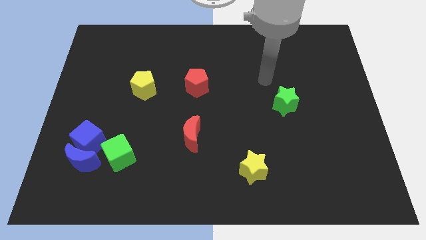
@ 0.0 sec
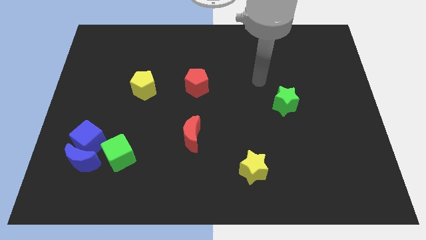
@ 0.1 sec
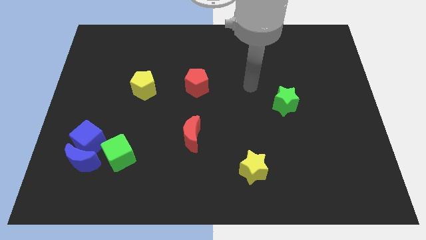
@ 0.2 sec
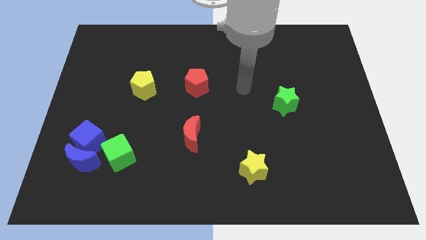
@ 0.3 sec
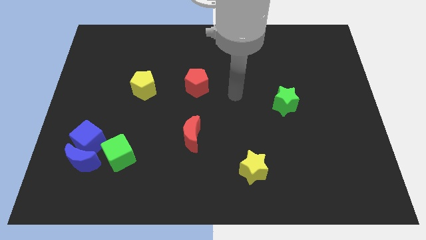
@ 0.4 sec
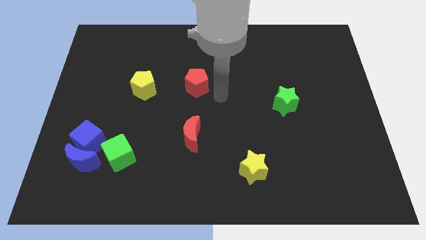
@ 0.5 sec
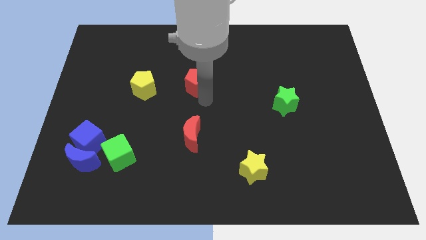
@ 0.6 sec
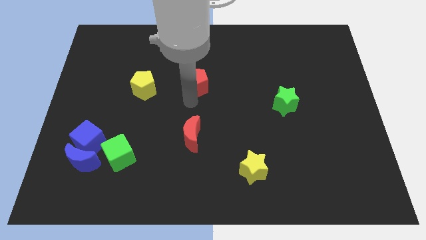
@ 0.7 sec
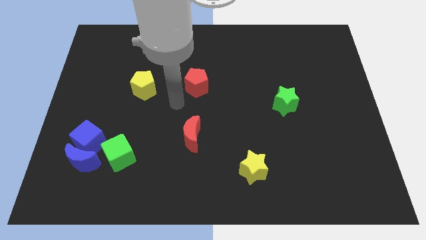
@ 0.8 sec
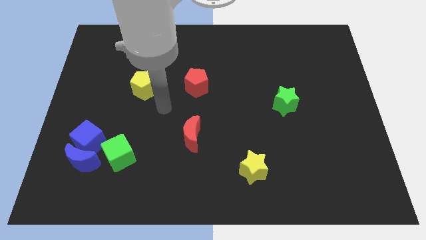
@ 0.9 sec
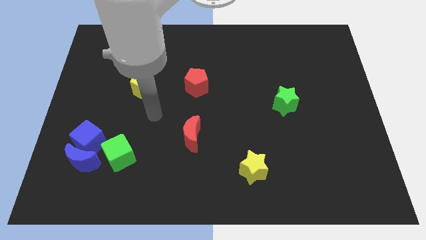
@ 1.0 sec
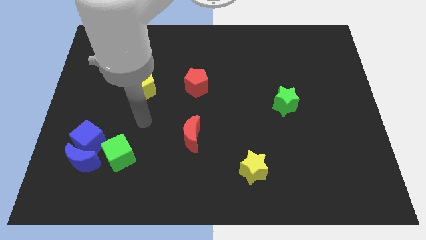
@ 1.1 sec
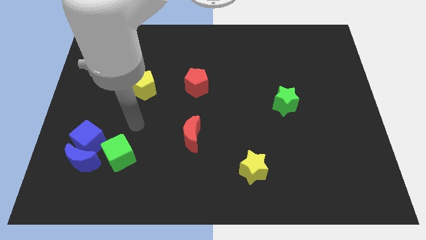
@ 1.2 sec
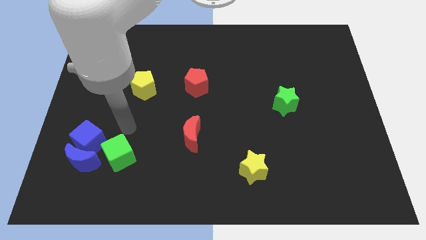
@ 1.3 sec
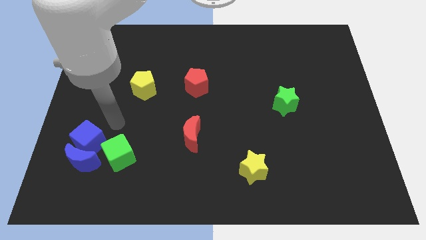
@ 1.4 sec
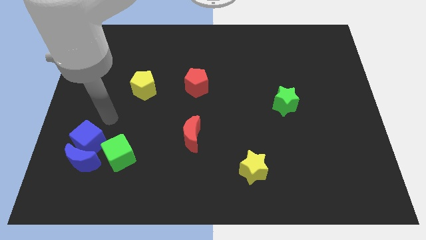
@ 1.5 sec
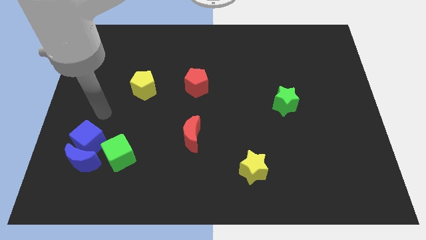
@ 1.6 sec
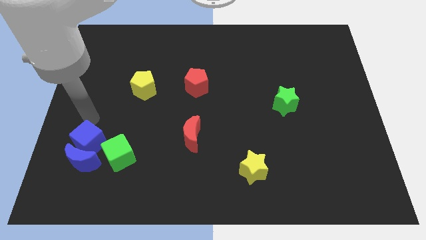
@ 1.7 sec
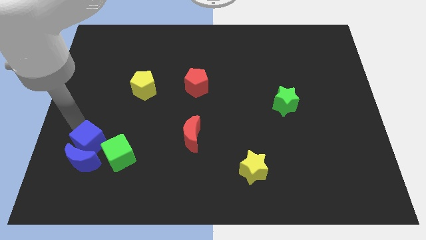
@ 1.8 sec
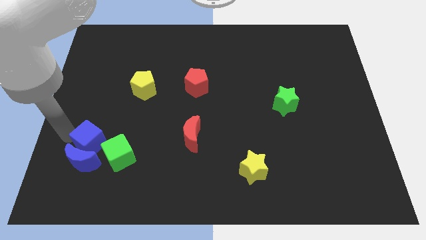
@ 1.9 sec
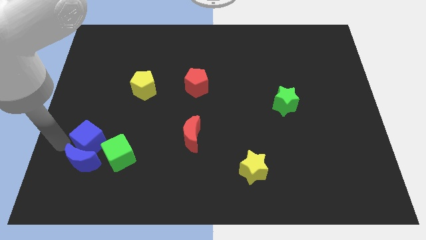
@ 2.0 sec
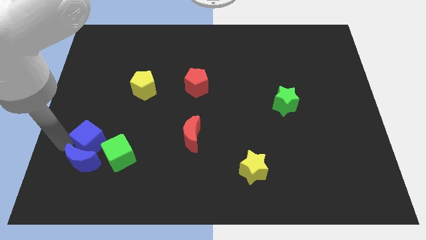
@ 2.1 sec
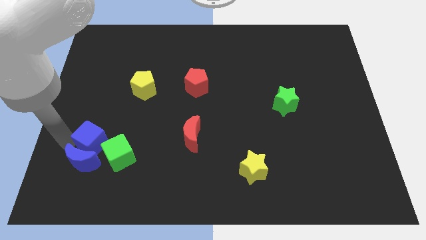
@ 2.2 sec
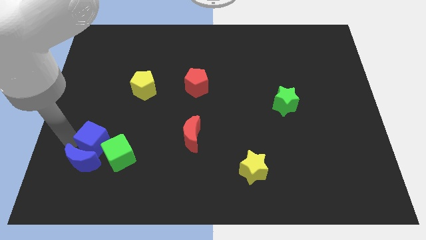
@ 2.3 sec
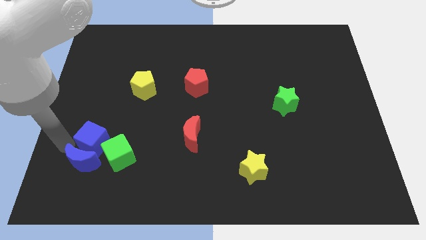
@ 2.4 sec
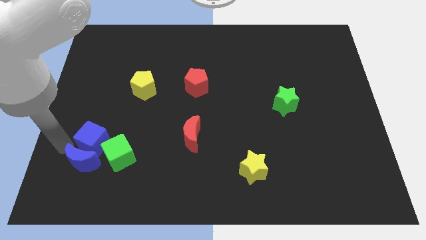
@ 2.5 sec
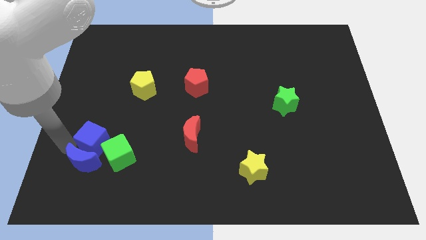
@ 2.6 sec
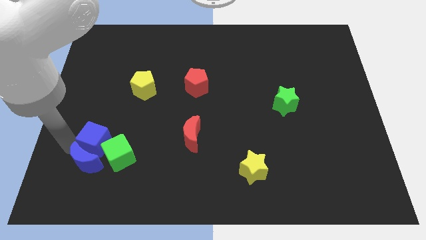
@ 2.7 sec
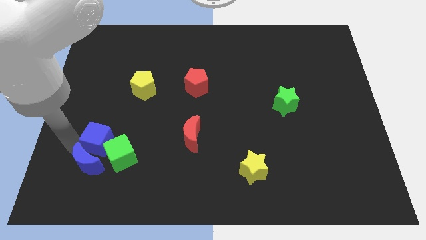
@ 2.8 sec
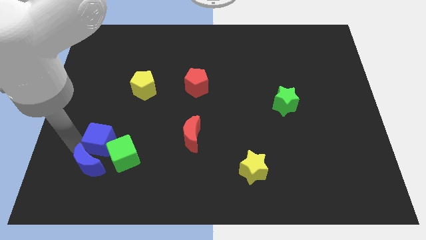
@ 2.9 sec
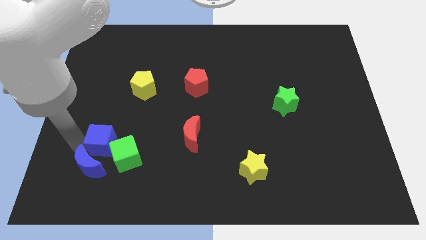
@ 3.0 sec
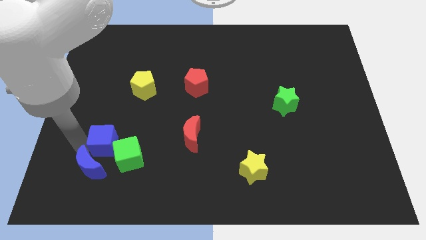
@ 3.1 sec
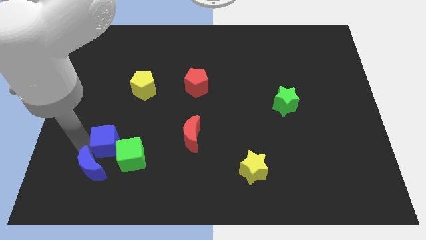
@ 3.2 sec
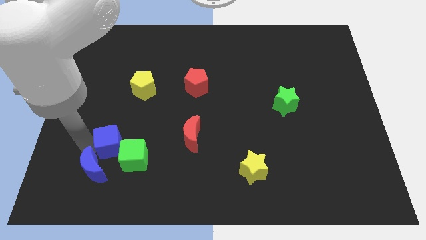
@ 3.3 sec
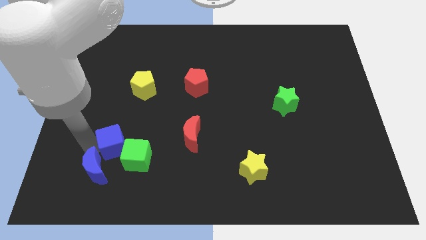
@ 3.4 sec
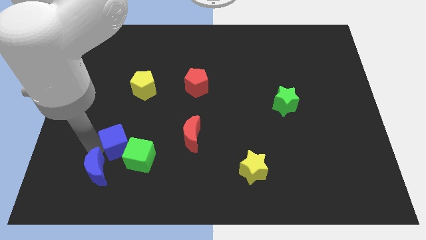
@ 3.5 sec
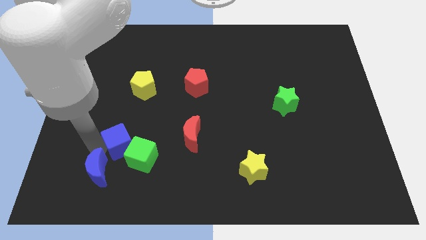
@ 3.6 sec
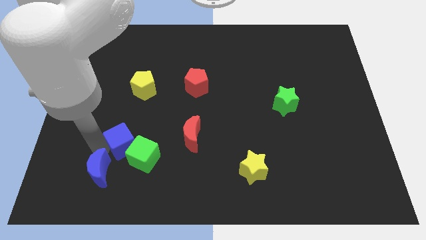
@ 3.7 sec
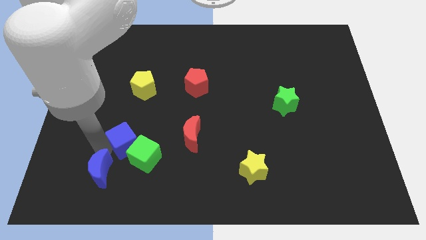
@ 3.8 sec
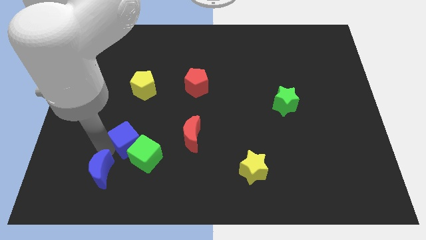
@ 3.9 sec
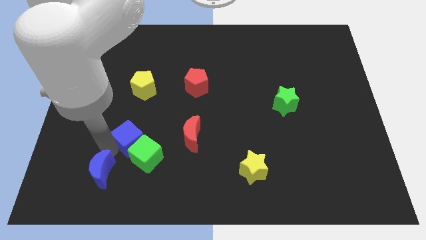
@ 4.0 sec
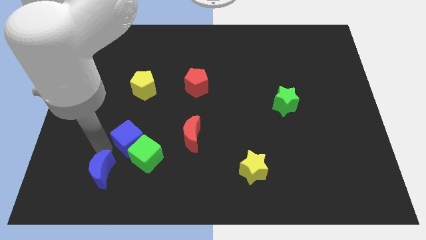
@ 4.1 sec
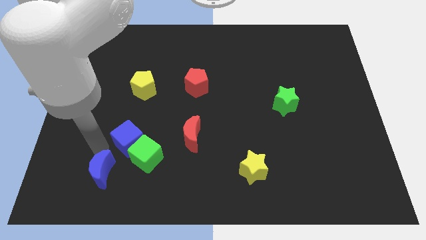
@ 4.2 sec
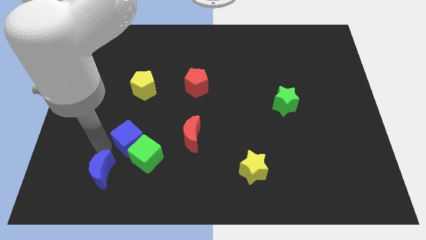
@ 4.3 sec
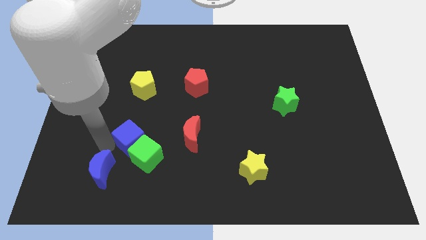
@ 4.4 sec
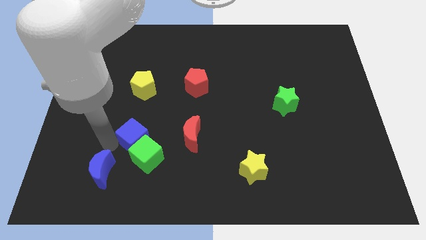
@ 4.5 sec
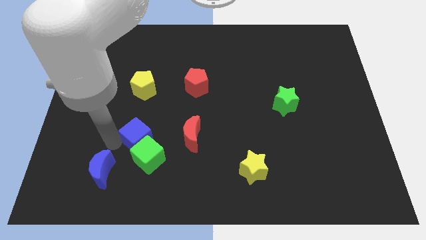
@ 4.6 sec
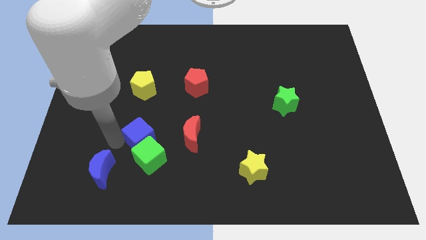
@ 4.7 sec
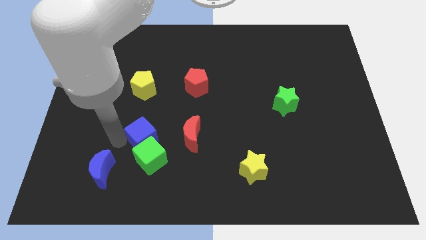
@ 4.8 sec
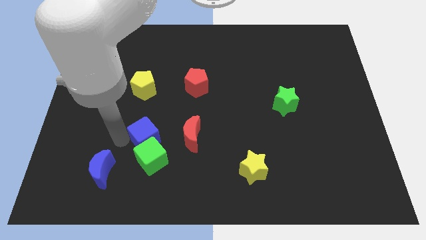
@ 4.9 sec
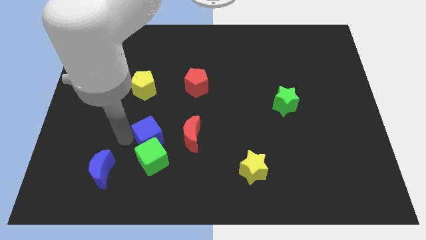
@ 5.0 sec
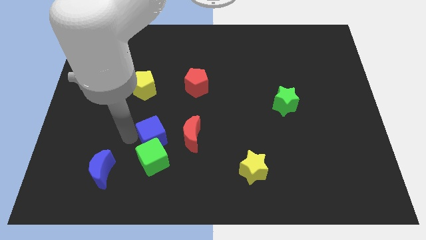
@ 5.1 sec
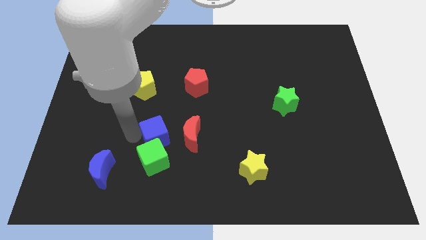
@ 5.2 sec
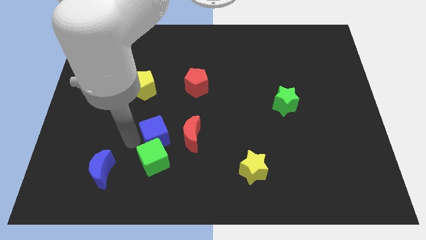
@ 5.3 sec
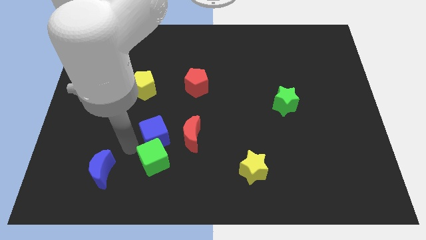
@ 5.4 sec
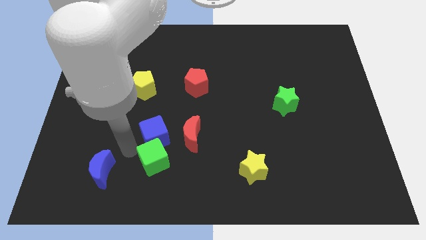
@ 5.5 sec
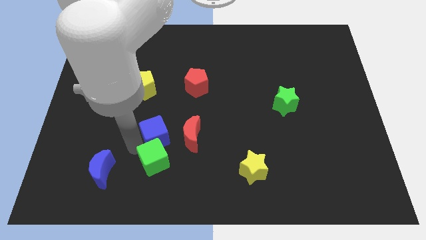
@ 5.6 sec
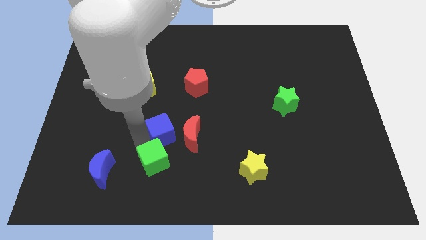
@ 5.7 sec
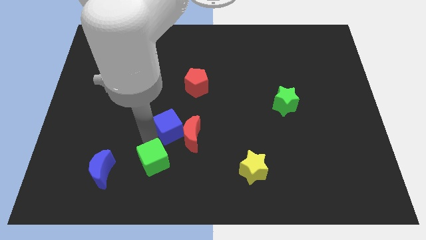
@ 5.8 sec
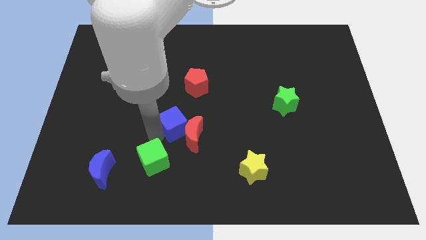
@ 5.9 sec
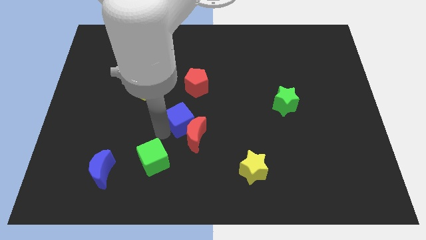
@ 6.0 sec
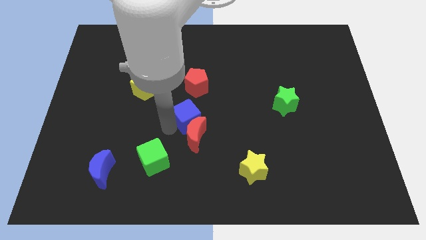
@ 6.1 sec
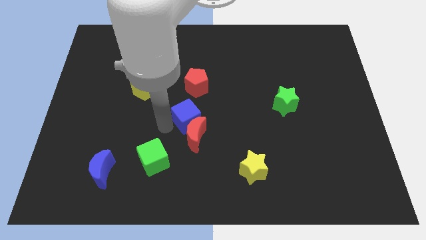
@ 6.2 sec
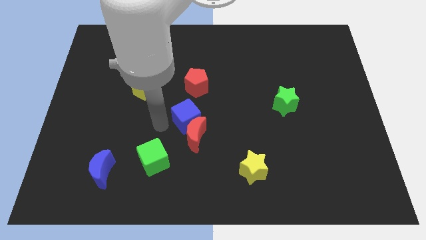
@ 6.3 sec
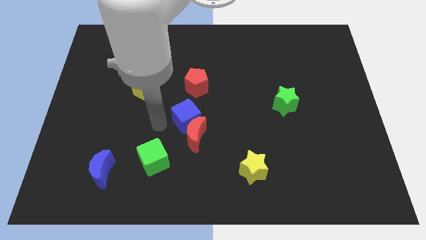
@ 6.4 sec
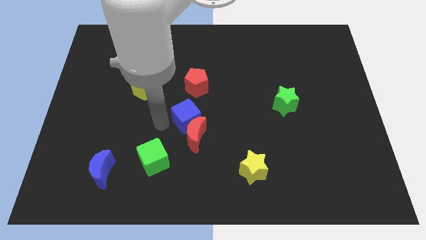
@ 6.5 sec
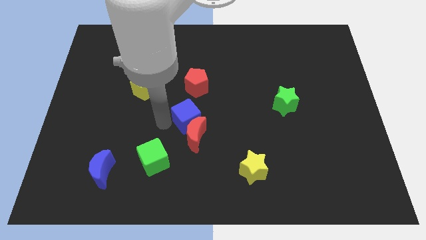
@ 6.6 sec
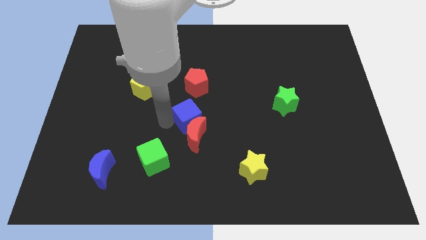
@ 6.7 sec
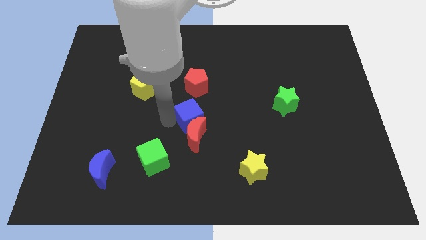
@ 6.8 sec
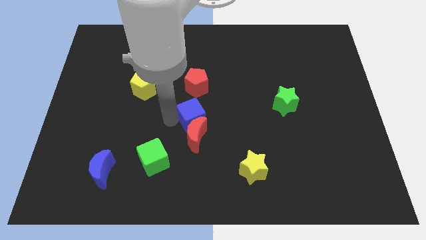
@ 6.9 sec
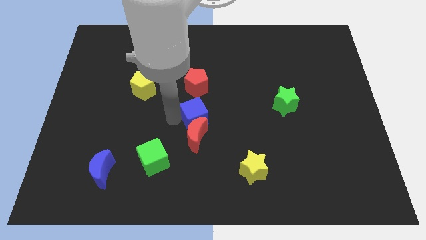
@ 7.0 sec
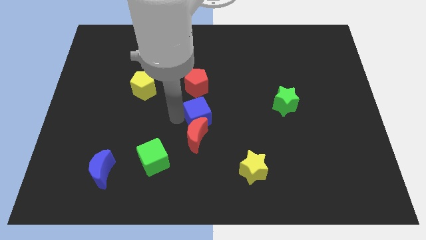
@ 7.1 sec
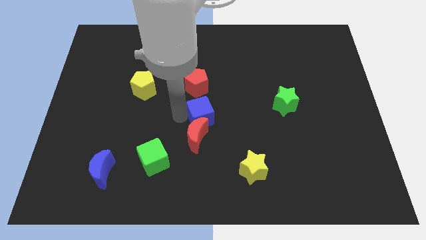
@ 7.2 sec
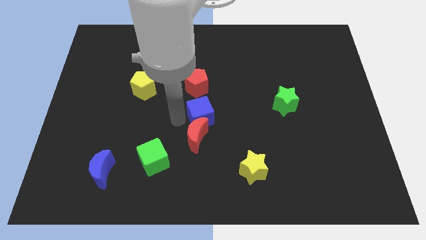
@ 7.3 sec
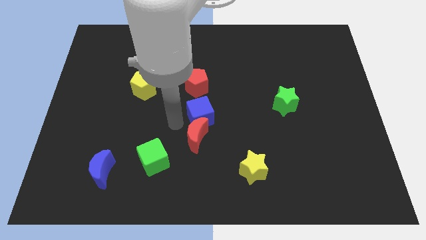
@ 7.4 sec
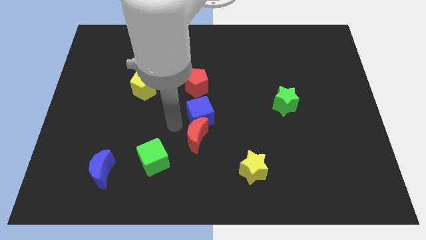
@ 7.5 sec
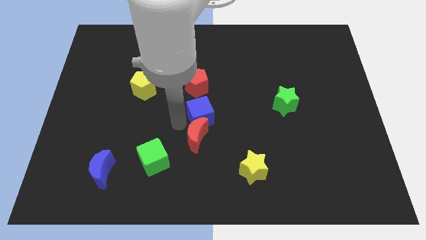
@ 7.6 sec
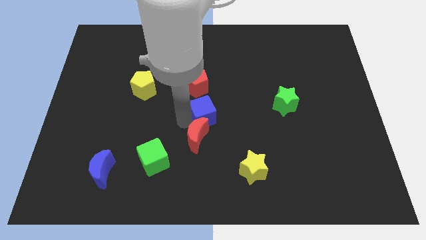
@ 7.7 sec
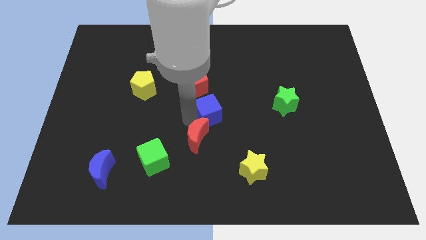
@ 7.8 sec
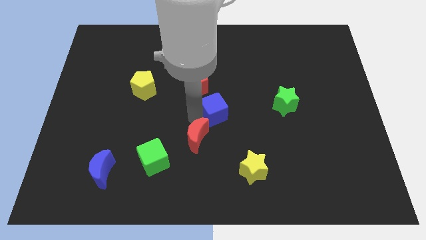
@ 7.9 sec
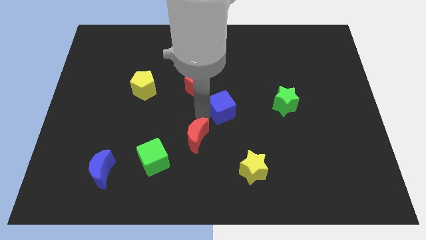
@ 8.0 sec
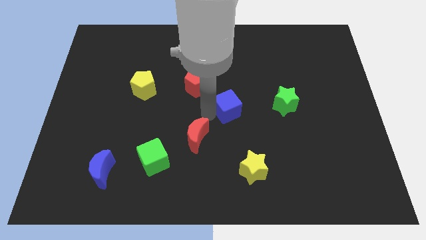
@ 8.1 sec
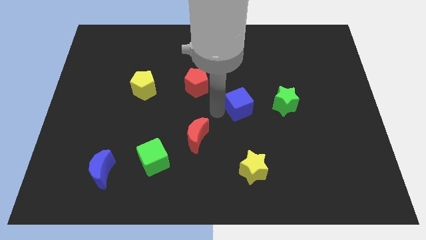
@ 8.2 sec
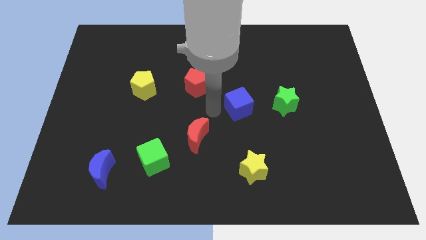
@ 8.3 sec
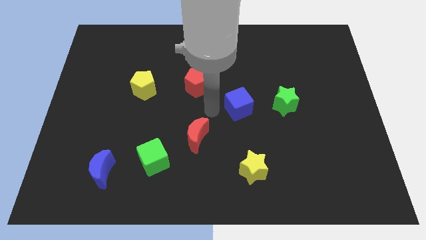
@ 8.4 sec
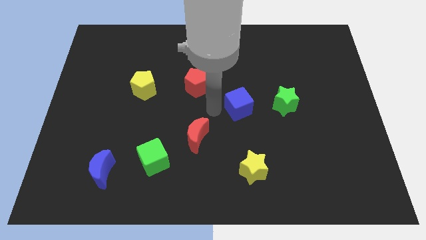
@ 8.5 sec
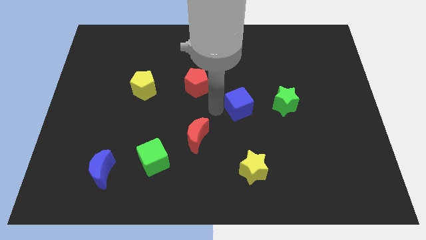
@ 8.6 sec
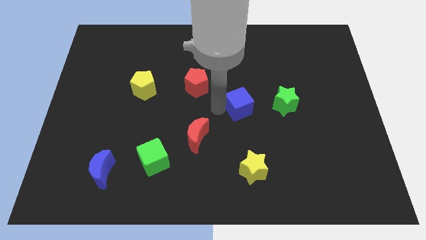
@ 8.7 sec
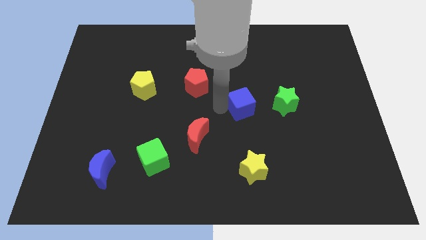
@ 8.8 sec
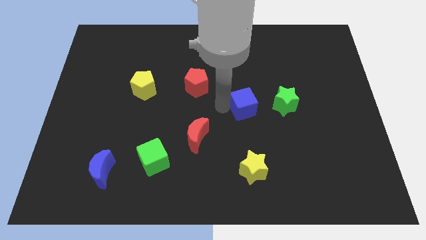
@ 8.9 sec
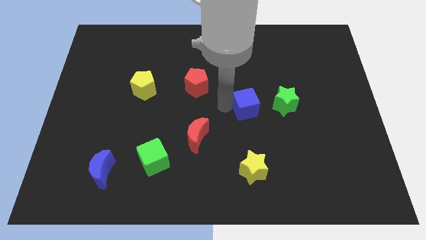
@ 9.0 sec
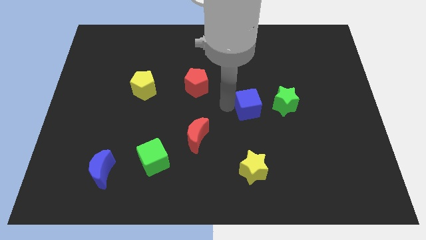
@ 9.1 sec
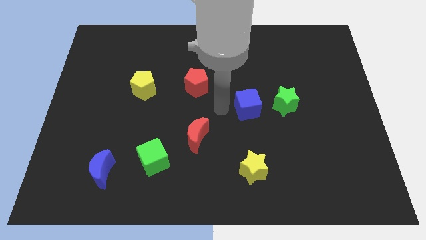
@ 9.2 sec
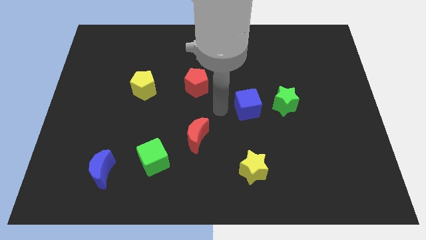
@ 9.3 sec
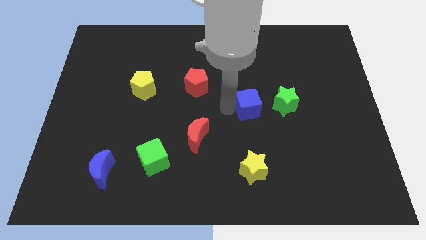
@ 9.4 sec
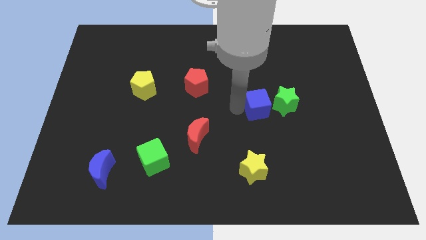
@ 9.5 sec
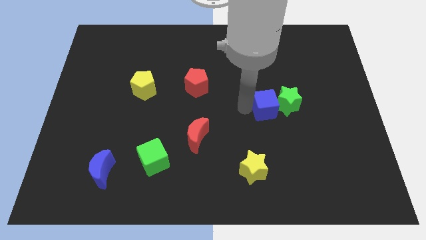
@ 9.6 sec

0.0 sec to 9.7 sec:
move the blue cube towards the green star
